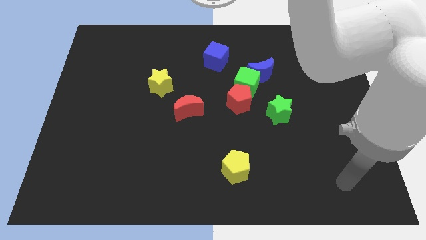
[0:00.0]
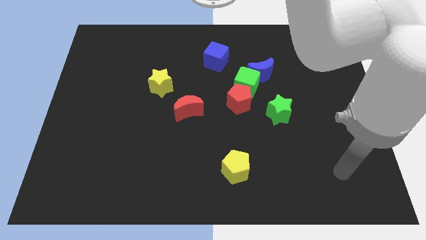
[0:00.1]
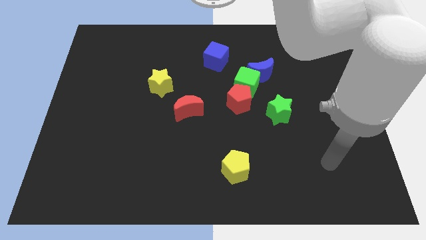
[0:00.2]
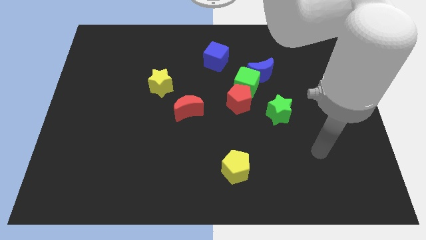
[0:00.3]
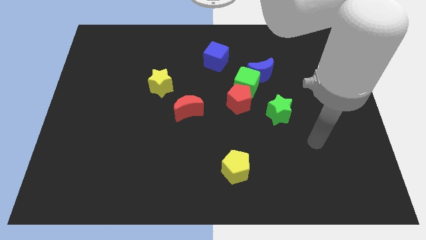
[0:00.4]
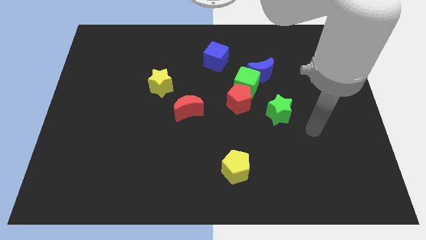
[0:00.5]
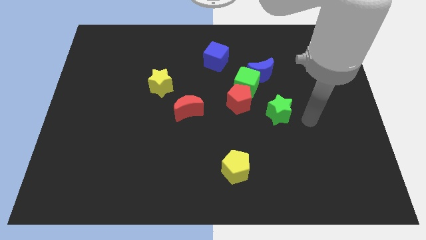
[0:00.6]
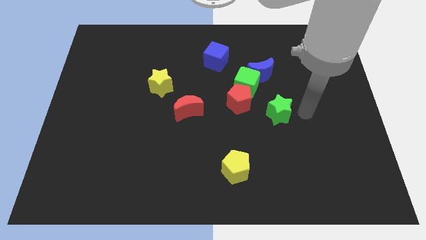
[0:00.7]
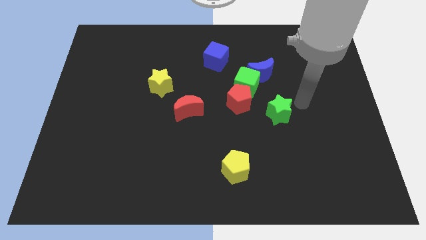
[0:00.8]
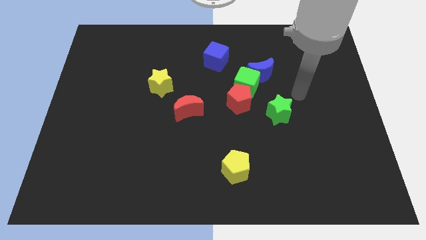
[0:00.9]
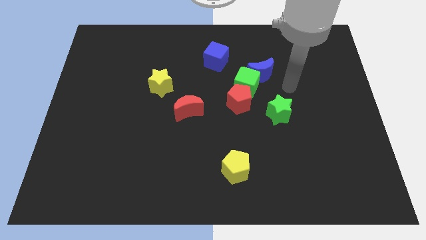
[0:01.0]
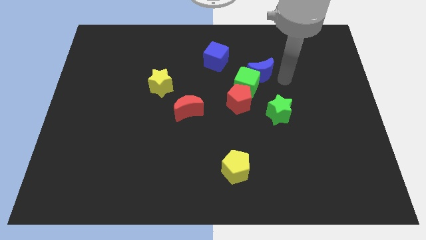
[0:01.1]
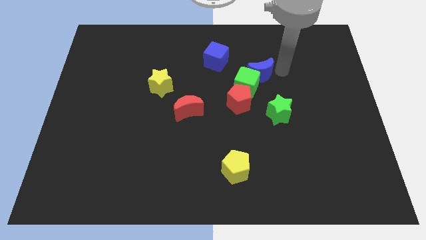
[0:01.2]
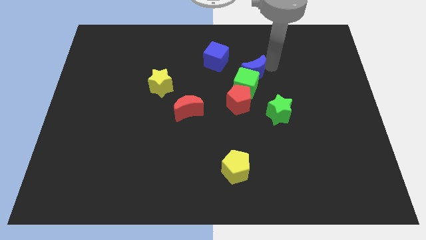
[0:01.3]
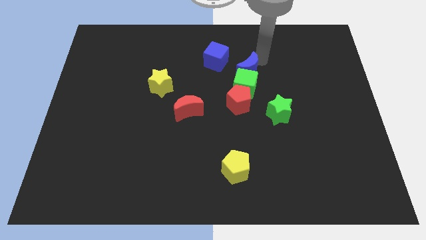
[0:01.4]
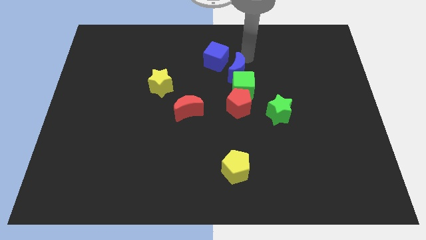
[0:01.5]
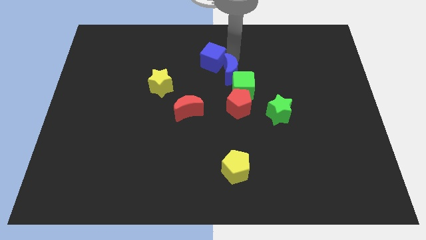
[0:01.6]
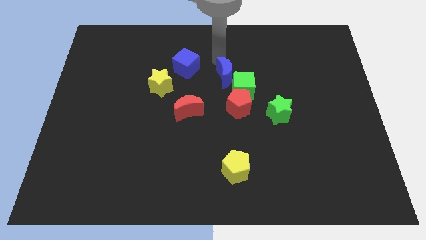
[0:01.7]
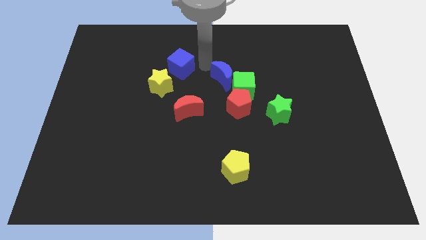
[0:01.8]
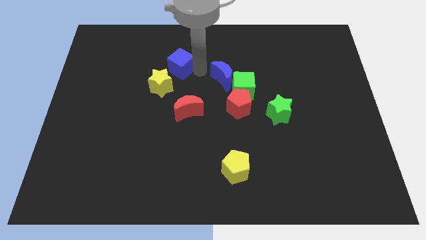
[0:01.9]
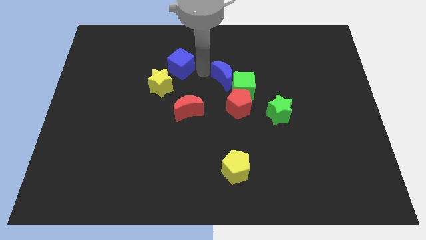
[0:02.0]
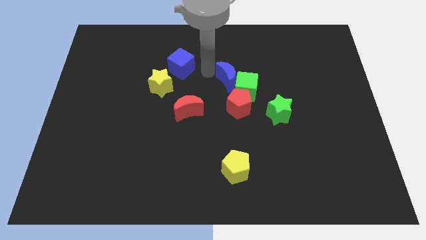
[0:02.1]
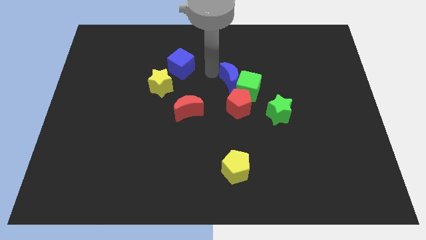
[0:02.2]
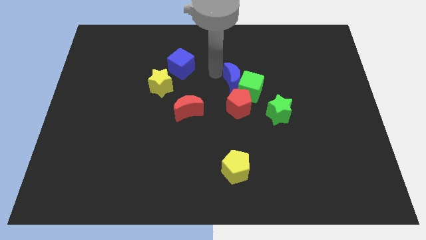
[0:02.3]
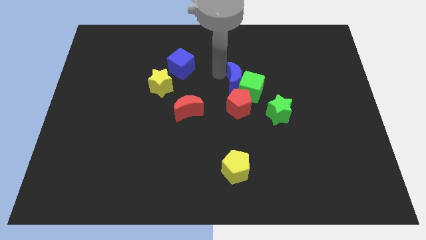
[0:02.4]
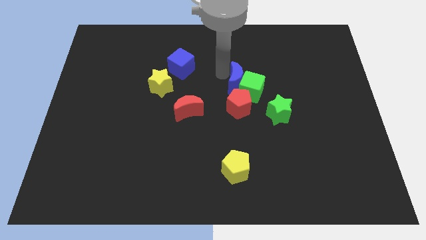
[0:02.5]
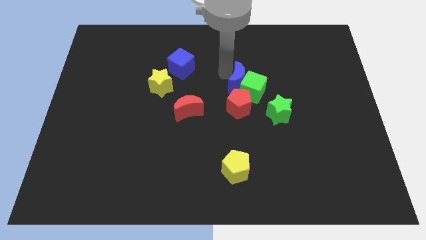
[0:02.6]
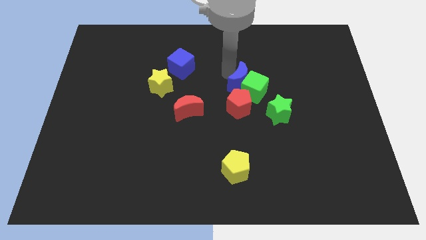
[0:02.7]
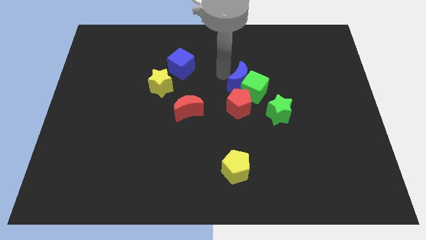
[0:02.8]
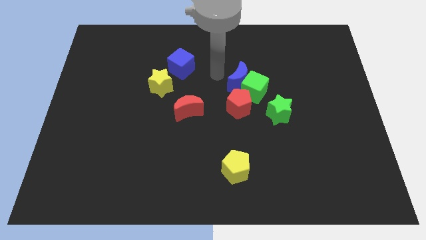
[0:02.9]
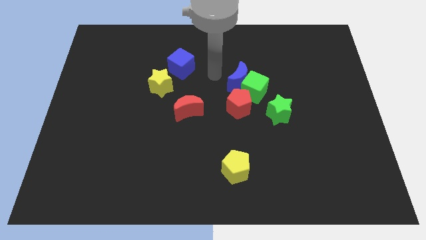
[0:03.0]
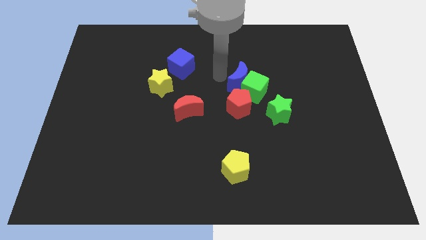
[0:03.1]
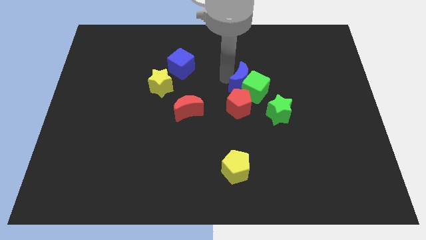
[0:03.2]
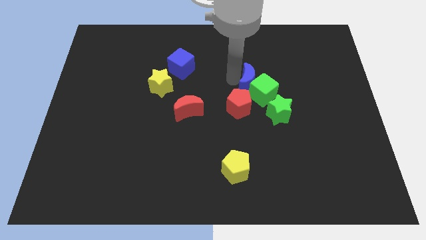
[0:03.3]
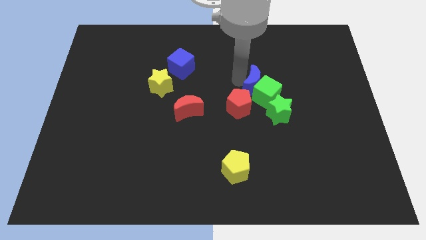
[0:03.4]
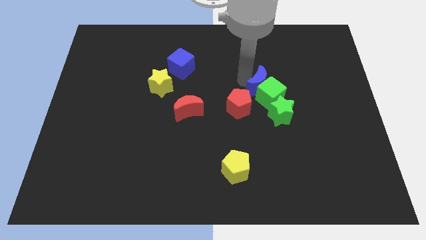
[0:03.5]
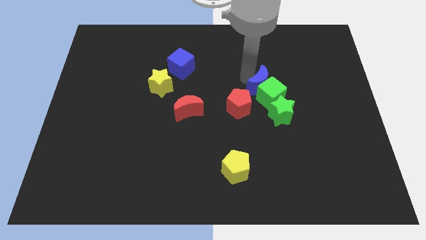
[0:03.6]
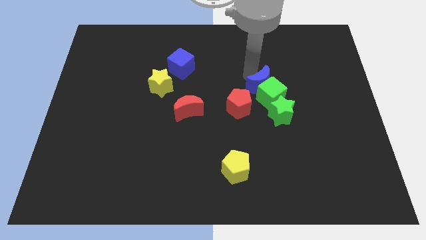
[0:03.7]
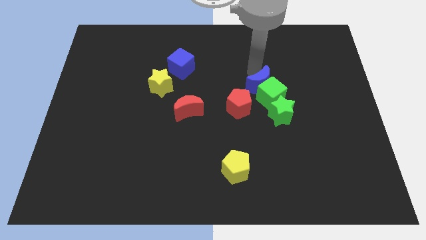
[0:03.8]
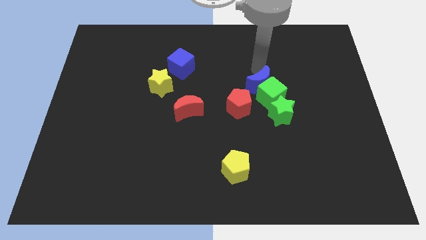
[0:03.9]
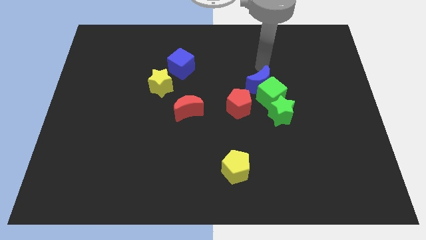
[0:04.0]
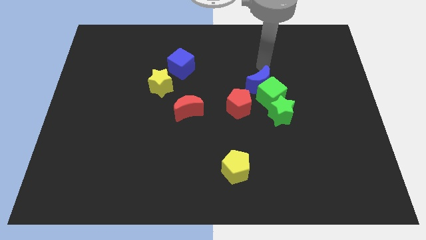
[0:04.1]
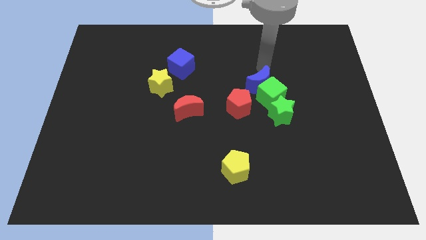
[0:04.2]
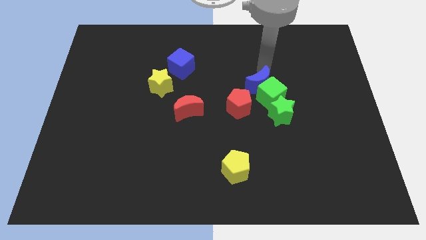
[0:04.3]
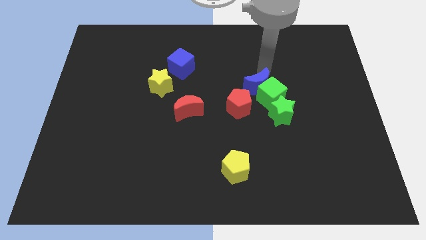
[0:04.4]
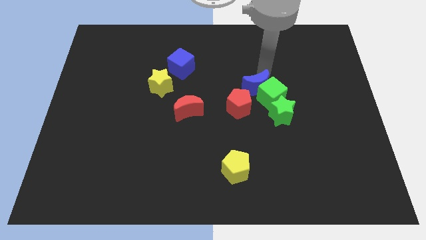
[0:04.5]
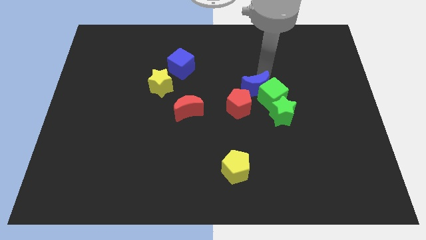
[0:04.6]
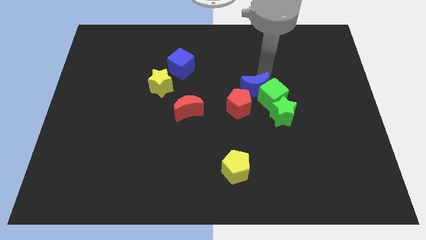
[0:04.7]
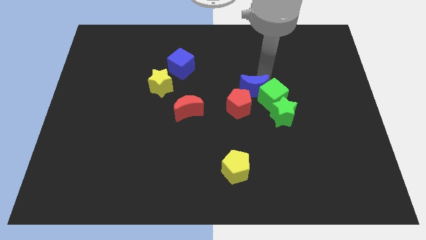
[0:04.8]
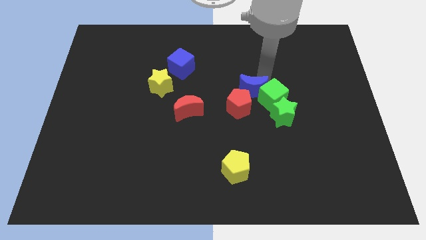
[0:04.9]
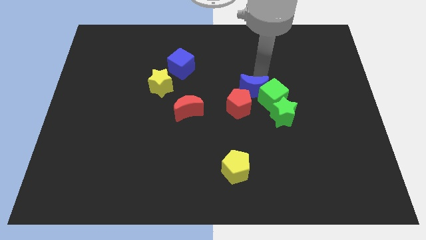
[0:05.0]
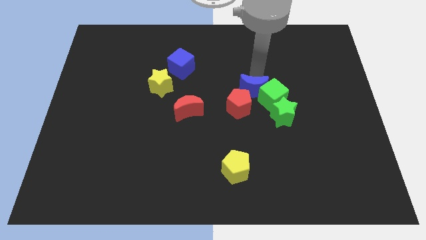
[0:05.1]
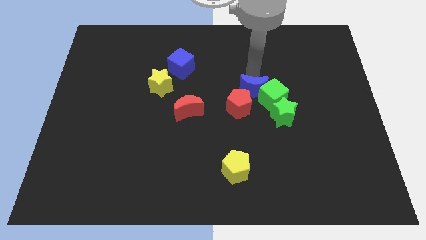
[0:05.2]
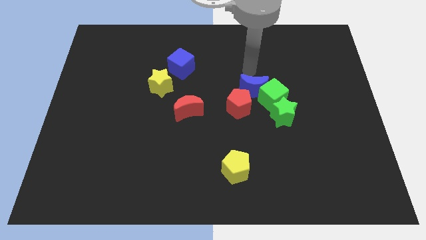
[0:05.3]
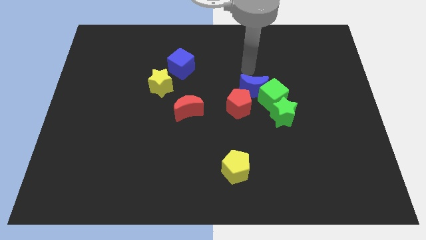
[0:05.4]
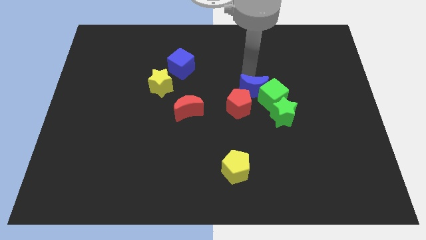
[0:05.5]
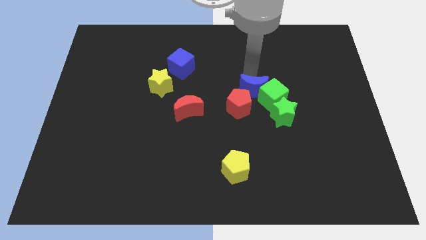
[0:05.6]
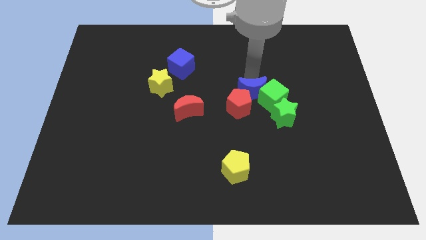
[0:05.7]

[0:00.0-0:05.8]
slide the blue moon to the red pentagon

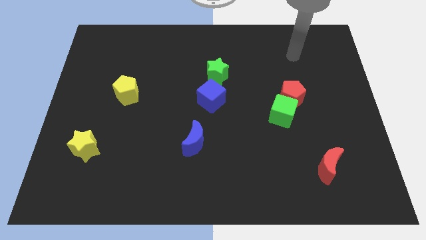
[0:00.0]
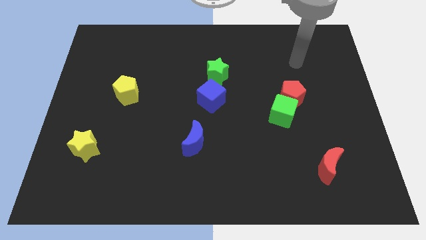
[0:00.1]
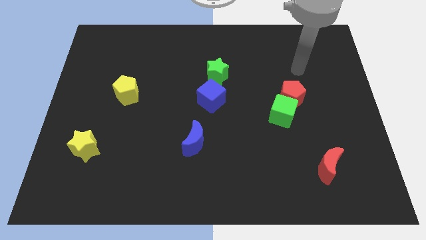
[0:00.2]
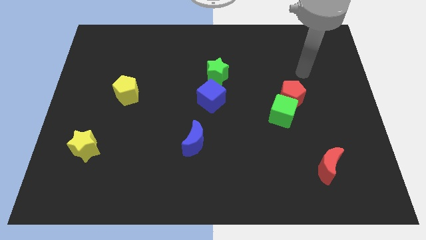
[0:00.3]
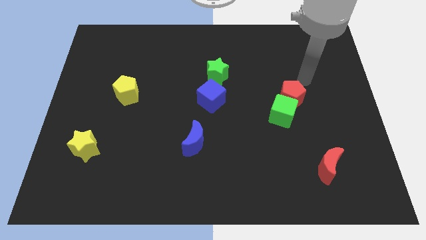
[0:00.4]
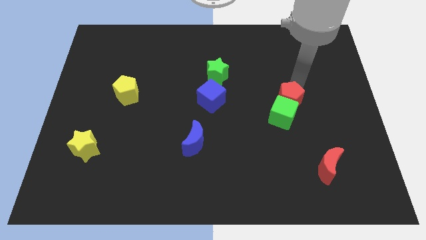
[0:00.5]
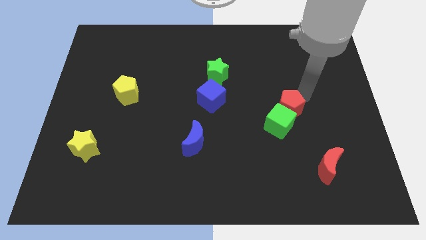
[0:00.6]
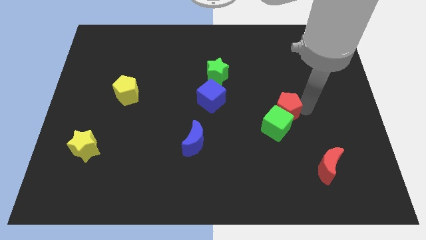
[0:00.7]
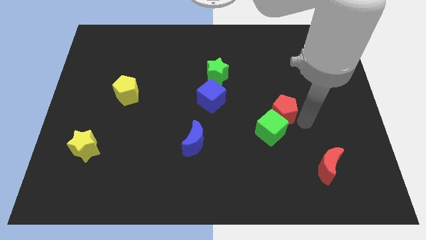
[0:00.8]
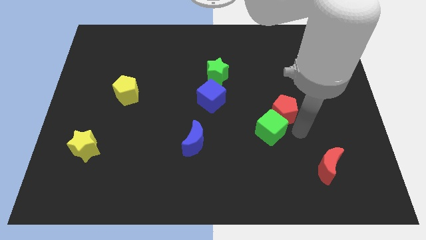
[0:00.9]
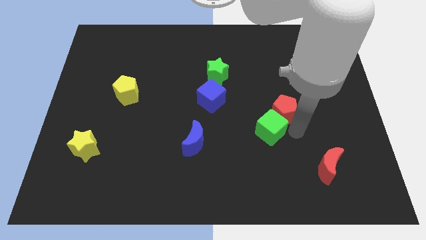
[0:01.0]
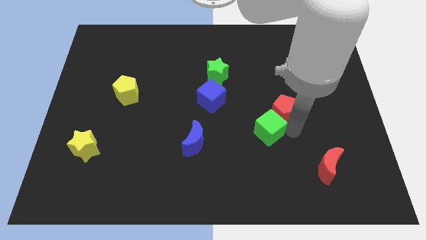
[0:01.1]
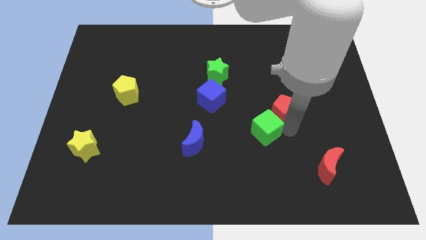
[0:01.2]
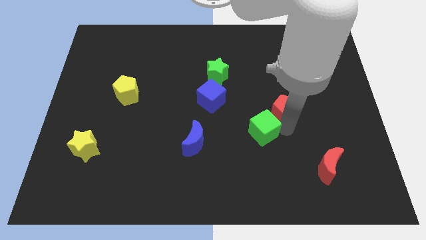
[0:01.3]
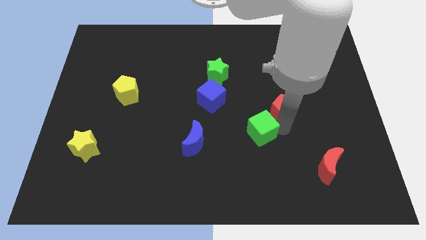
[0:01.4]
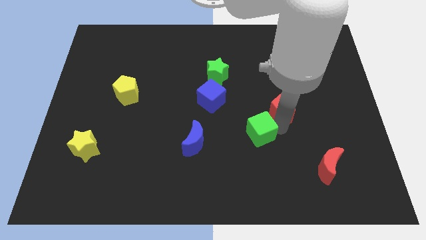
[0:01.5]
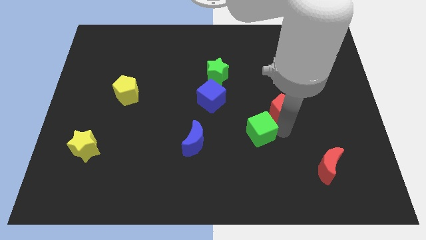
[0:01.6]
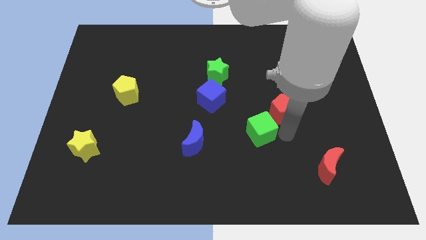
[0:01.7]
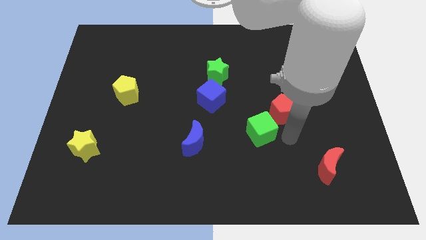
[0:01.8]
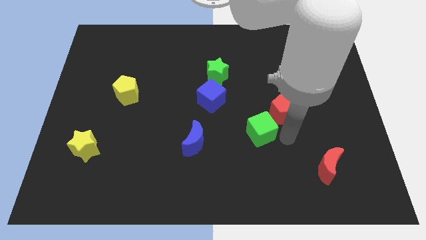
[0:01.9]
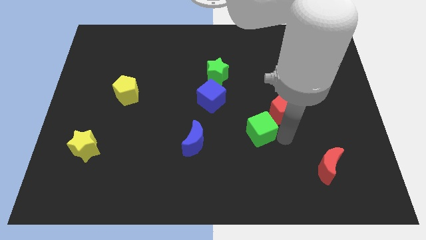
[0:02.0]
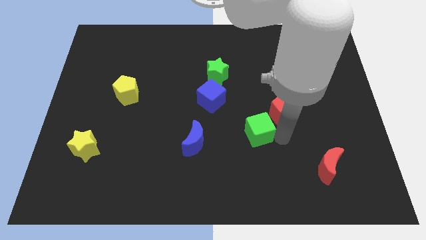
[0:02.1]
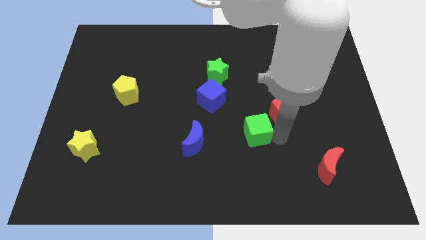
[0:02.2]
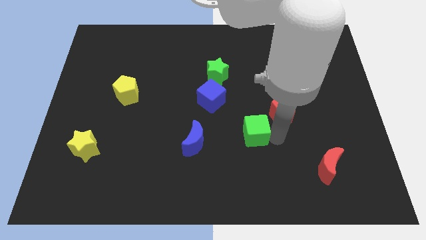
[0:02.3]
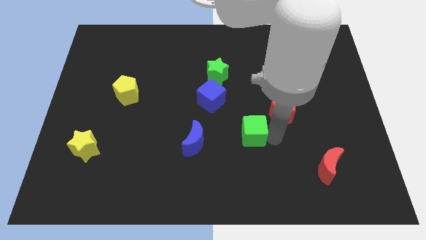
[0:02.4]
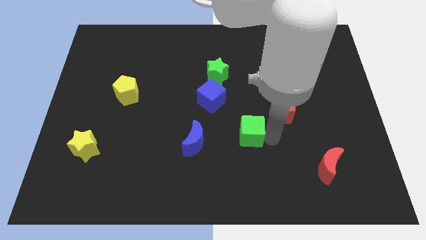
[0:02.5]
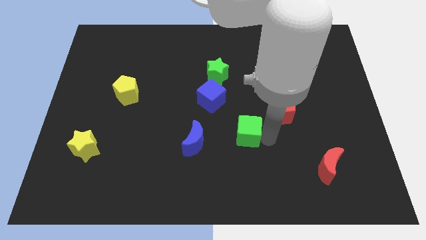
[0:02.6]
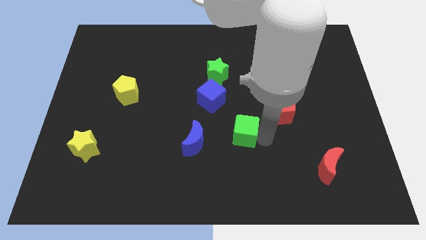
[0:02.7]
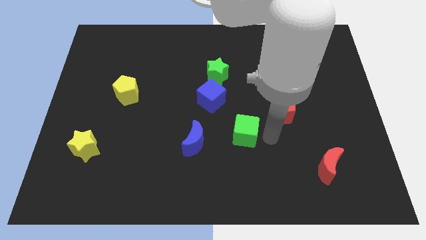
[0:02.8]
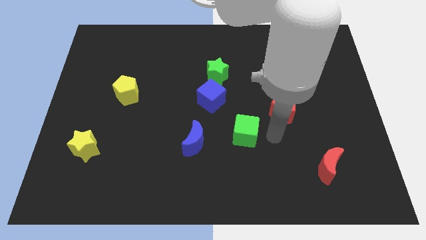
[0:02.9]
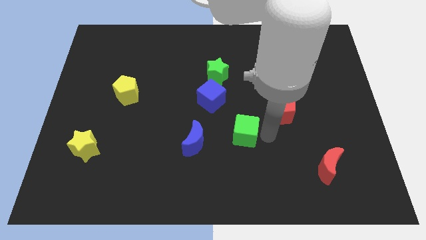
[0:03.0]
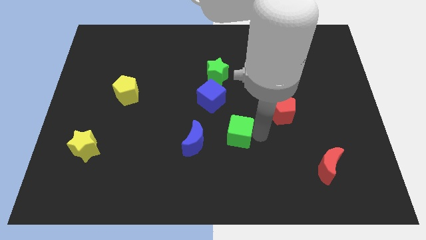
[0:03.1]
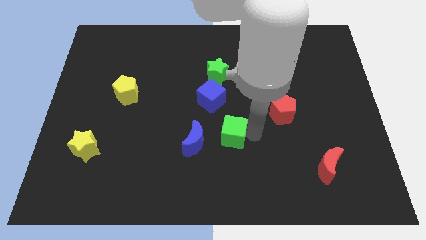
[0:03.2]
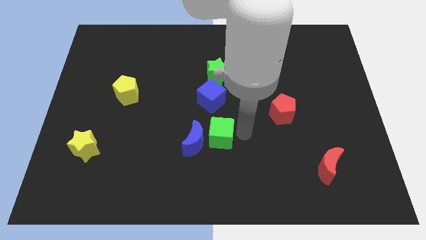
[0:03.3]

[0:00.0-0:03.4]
push the green cube to the blue moon
